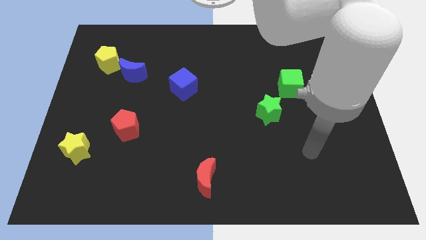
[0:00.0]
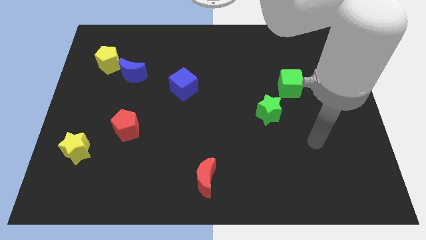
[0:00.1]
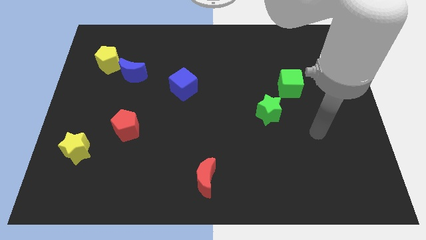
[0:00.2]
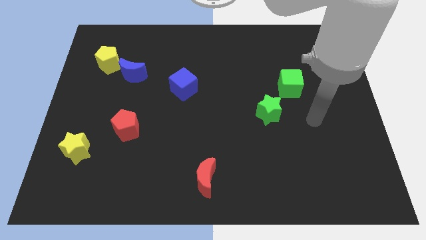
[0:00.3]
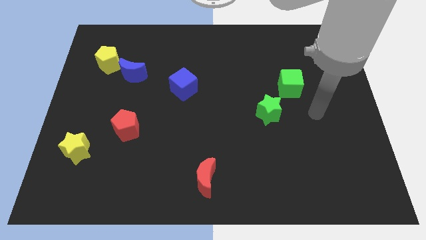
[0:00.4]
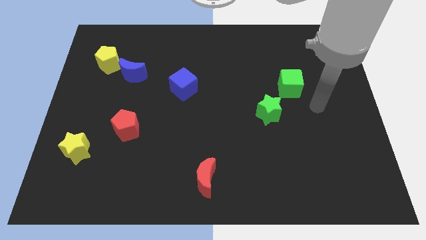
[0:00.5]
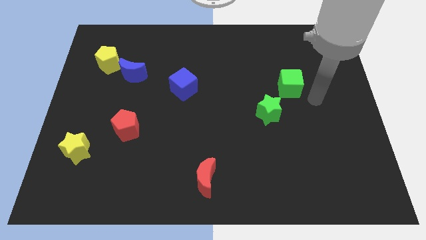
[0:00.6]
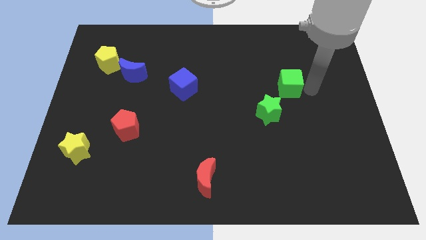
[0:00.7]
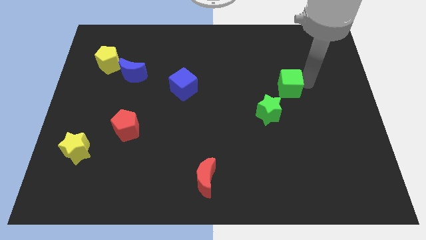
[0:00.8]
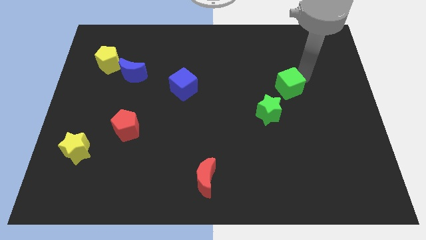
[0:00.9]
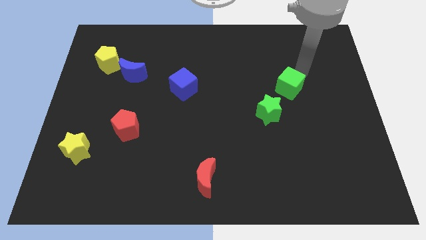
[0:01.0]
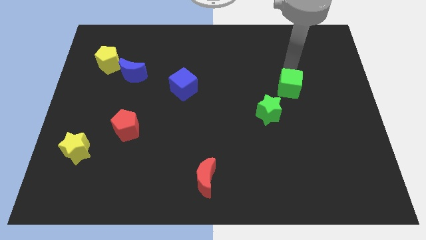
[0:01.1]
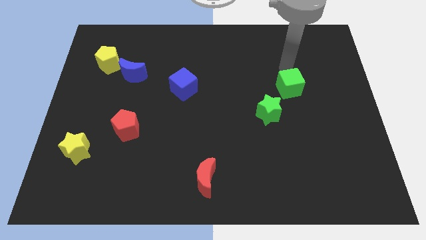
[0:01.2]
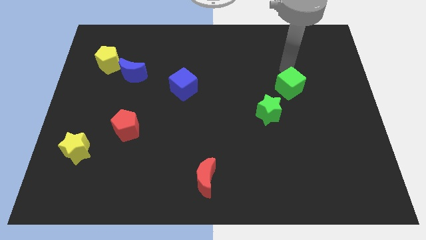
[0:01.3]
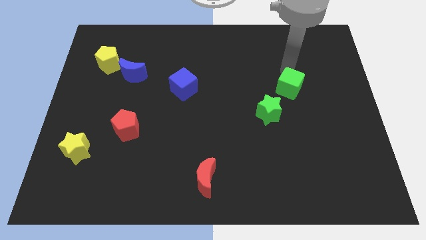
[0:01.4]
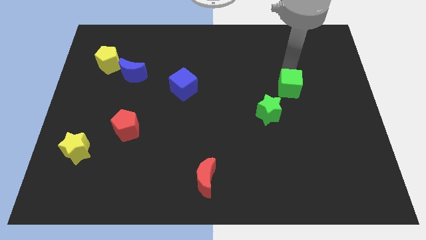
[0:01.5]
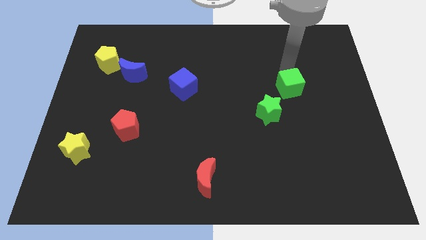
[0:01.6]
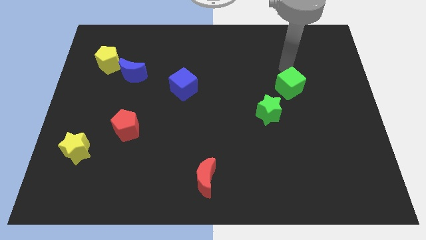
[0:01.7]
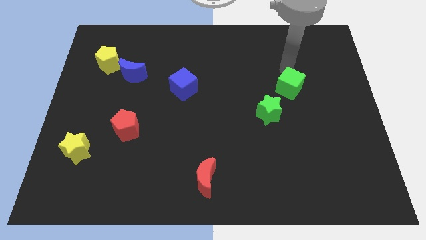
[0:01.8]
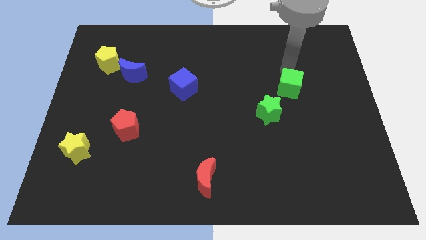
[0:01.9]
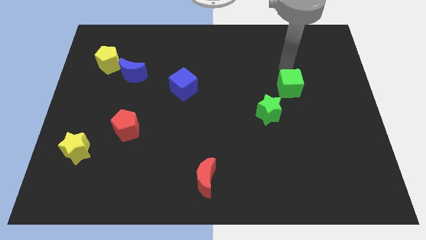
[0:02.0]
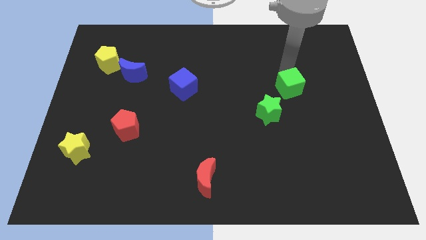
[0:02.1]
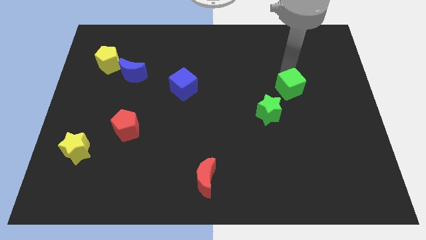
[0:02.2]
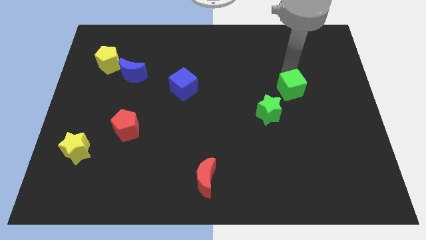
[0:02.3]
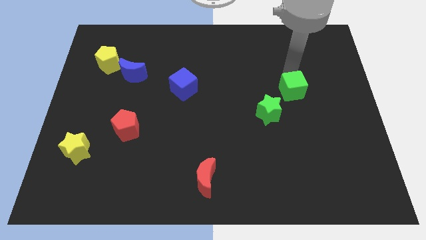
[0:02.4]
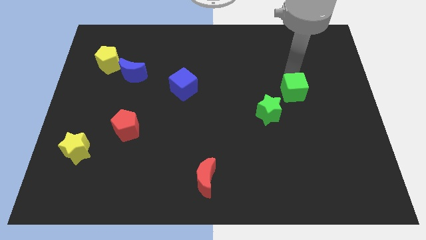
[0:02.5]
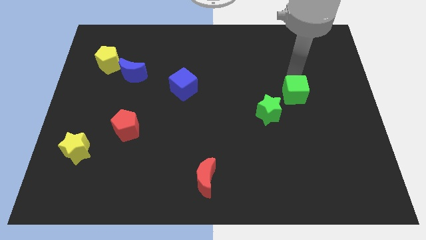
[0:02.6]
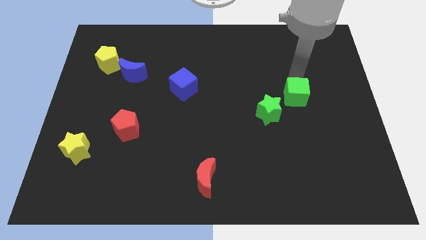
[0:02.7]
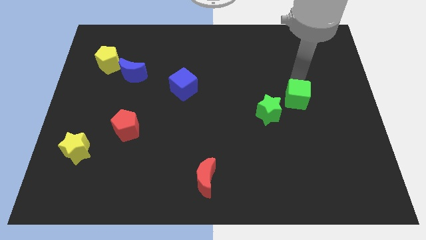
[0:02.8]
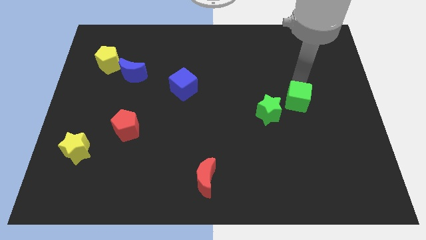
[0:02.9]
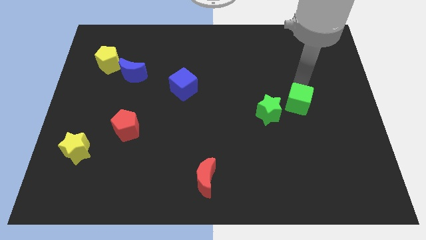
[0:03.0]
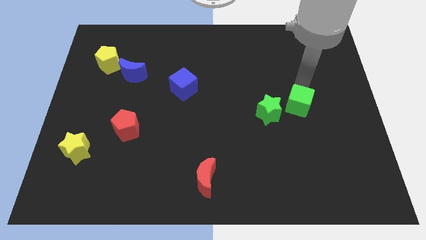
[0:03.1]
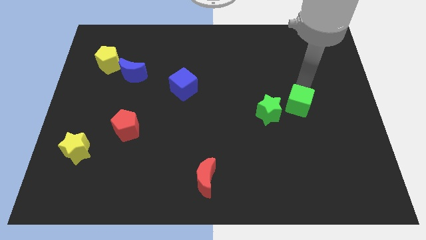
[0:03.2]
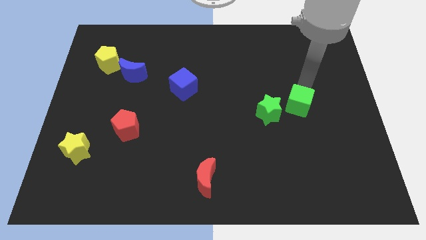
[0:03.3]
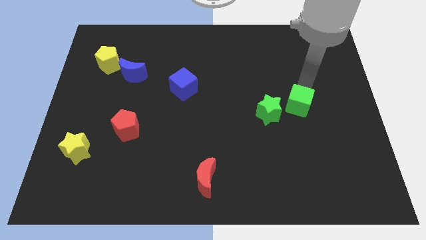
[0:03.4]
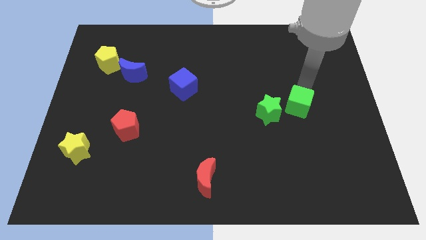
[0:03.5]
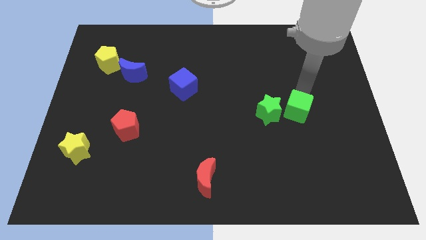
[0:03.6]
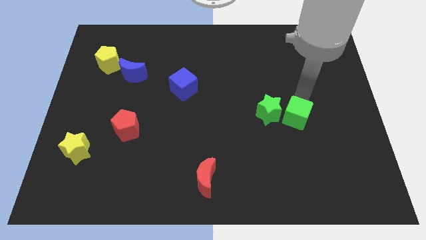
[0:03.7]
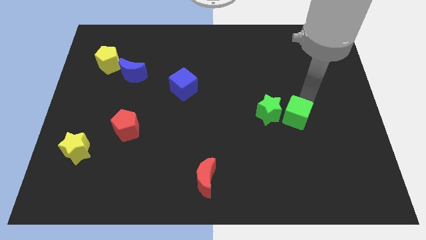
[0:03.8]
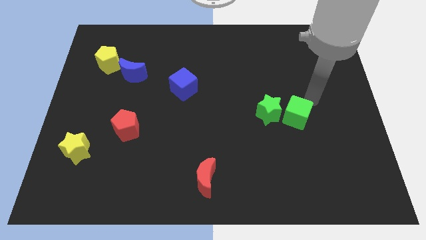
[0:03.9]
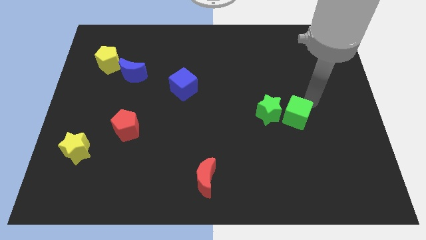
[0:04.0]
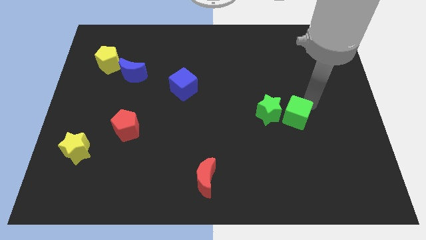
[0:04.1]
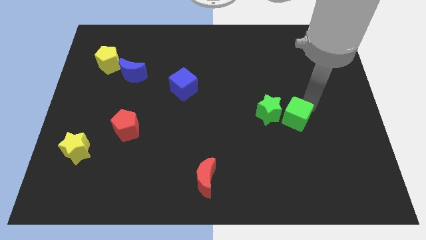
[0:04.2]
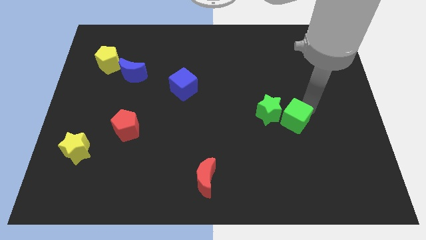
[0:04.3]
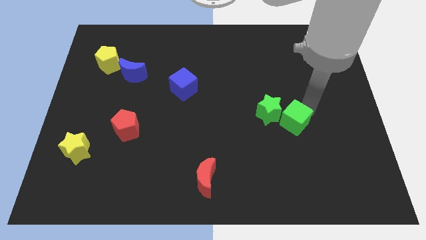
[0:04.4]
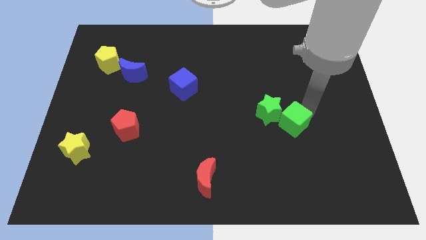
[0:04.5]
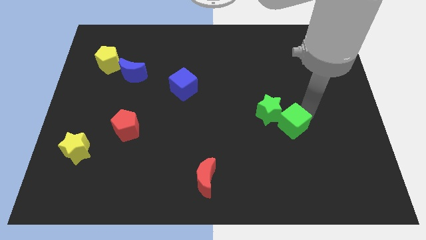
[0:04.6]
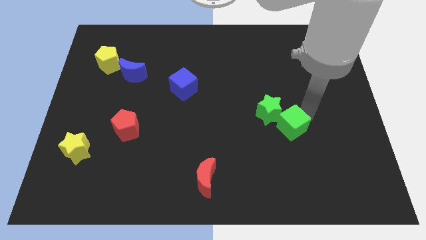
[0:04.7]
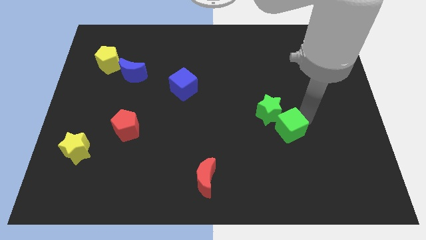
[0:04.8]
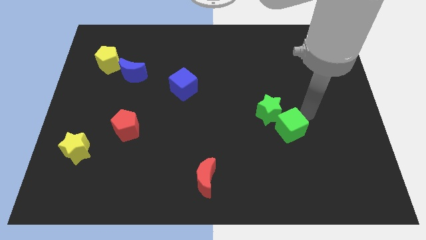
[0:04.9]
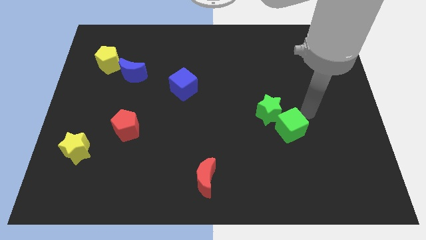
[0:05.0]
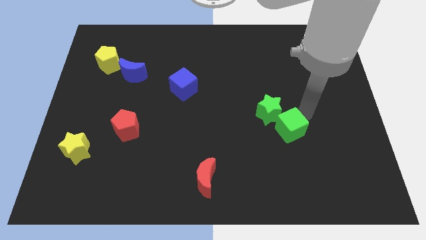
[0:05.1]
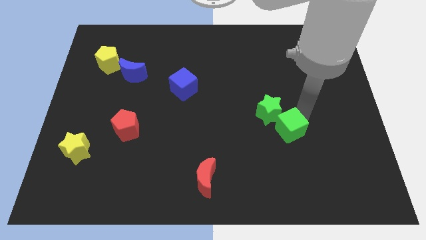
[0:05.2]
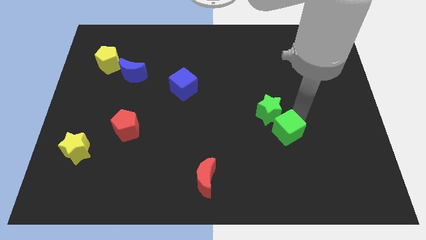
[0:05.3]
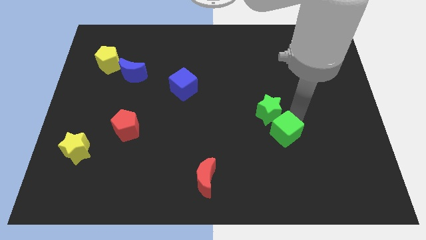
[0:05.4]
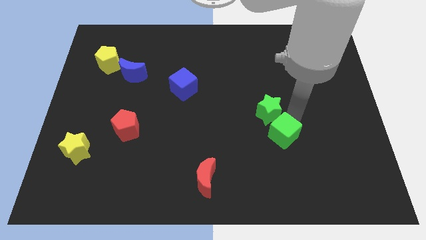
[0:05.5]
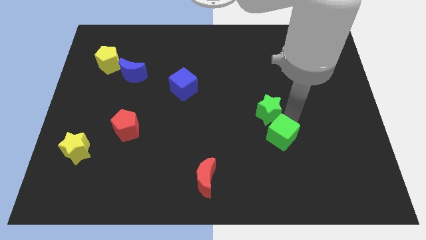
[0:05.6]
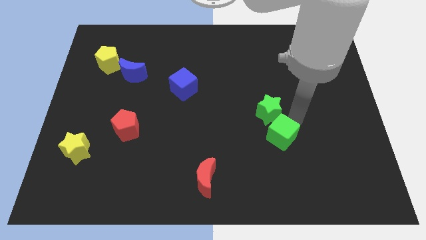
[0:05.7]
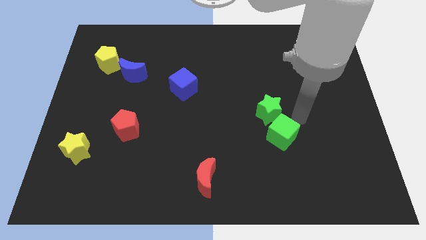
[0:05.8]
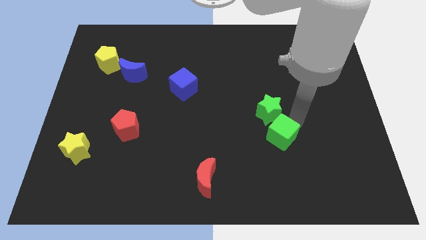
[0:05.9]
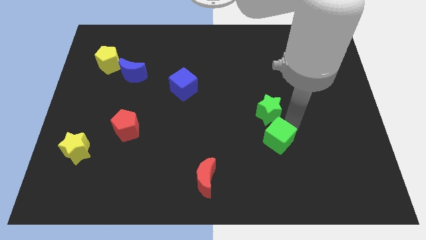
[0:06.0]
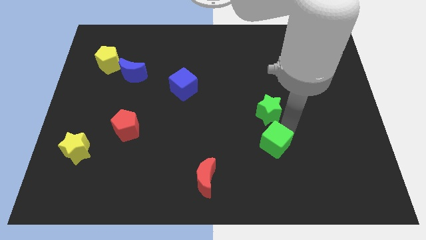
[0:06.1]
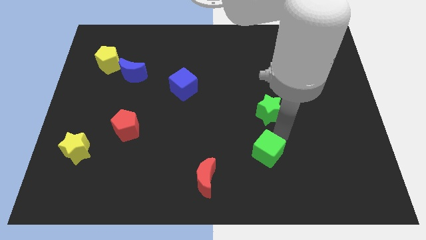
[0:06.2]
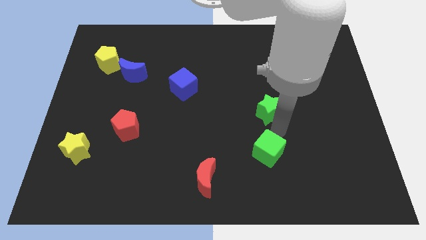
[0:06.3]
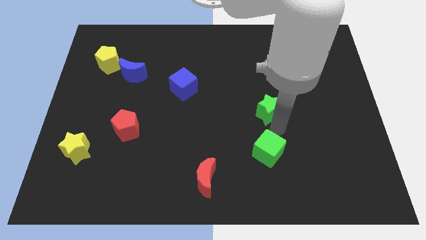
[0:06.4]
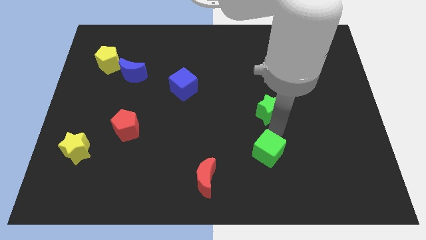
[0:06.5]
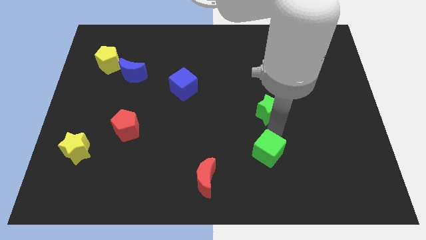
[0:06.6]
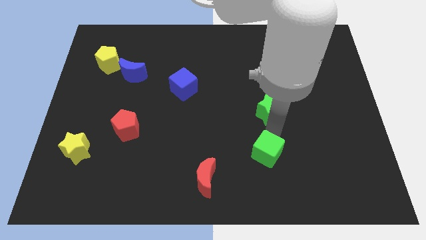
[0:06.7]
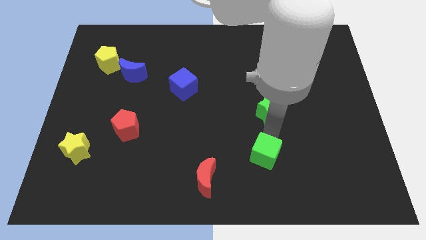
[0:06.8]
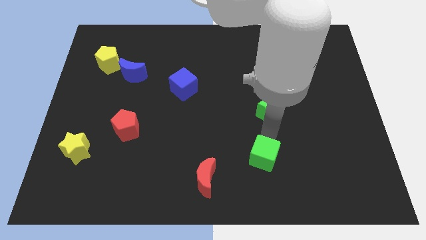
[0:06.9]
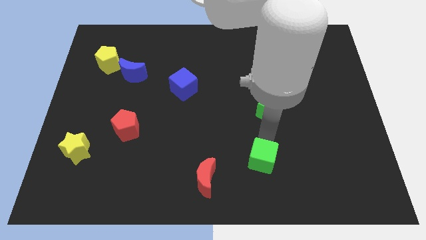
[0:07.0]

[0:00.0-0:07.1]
slide the green cube just right of the red moon

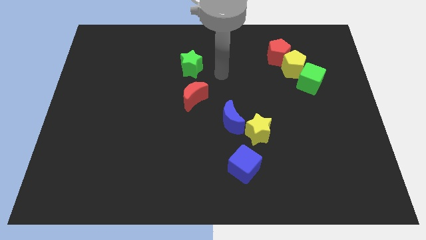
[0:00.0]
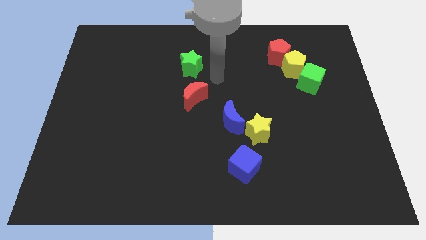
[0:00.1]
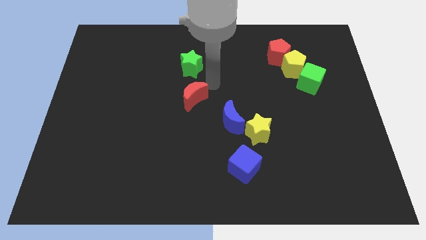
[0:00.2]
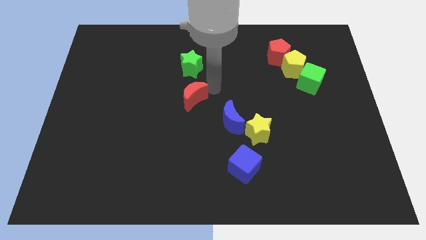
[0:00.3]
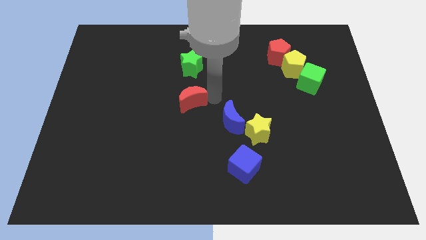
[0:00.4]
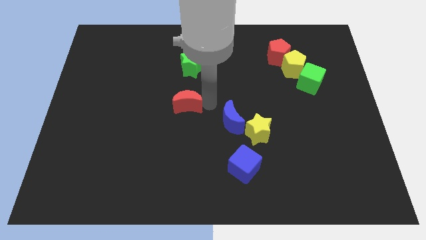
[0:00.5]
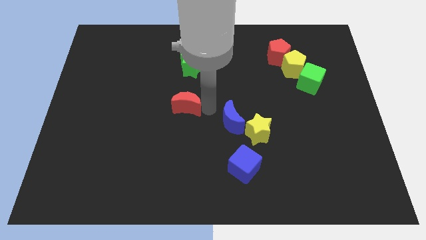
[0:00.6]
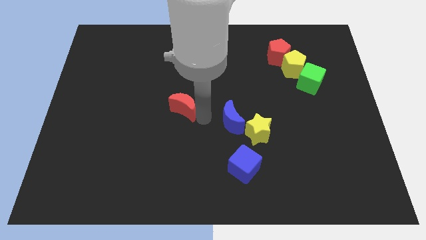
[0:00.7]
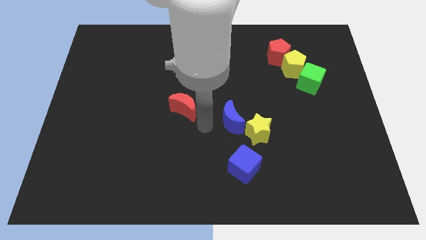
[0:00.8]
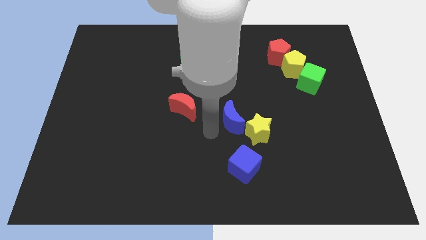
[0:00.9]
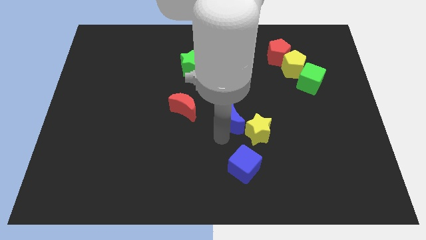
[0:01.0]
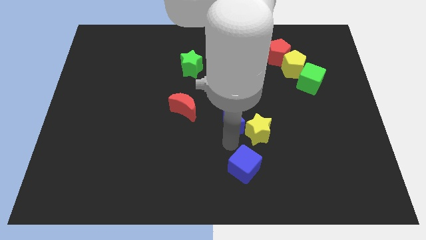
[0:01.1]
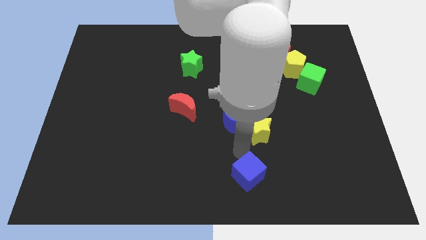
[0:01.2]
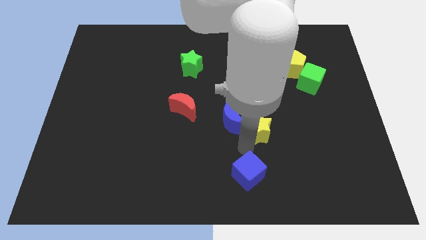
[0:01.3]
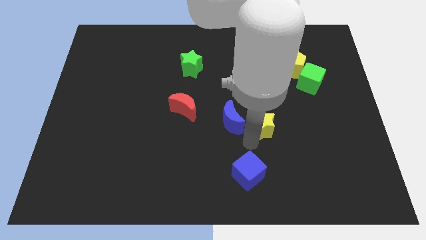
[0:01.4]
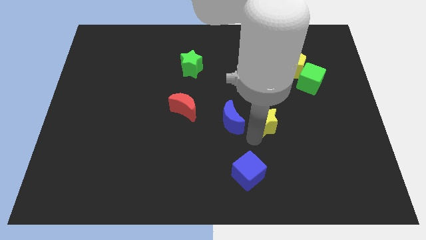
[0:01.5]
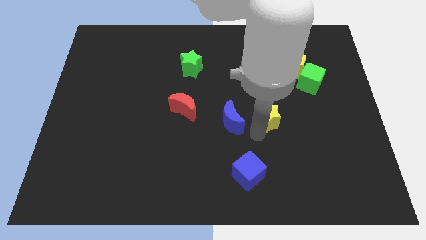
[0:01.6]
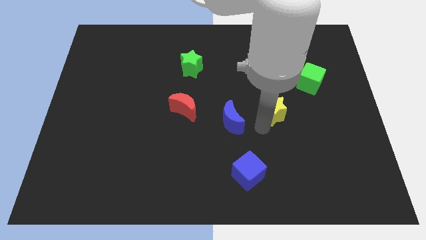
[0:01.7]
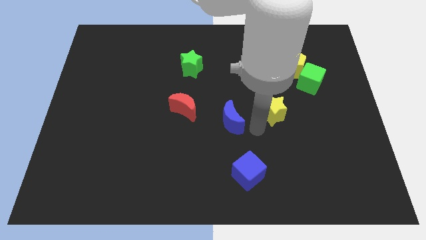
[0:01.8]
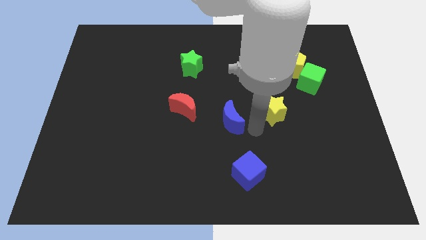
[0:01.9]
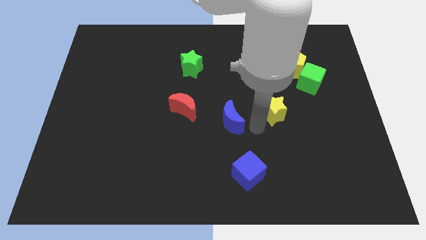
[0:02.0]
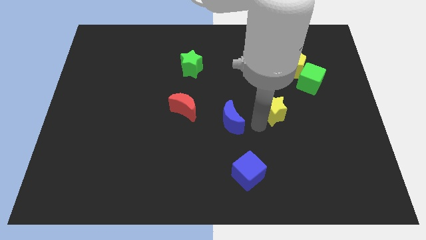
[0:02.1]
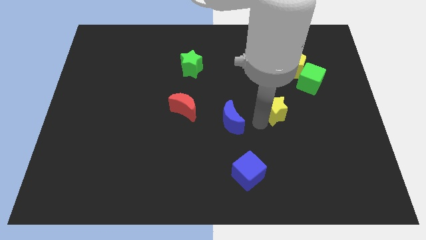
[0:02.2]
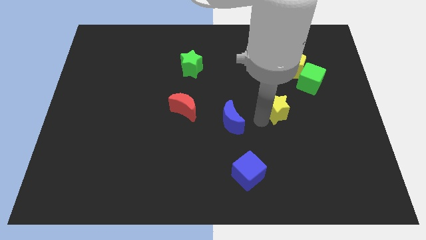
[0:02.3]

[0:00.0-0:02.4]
move the yellow star to the bottom left side of the green cube
